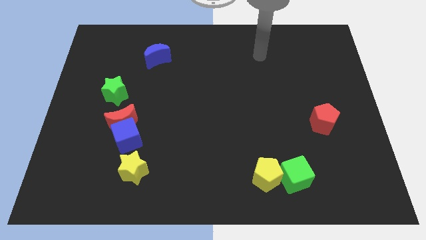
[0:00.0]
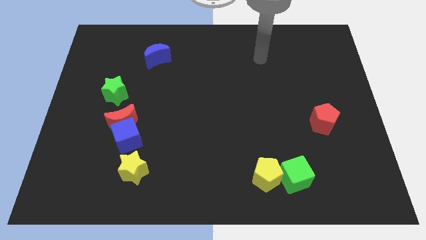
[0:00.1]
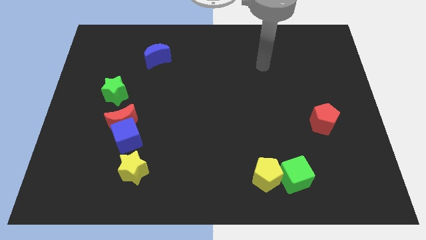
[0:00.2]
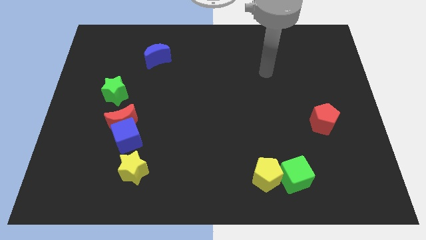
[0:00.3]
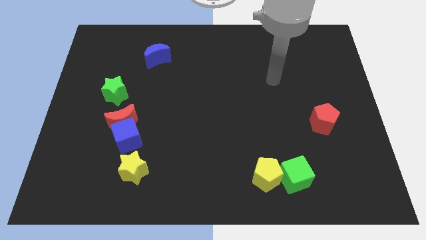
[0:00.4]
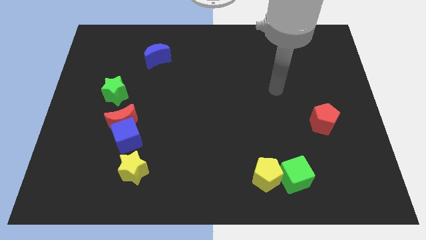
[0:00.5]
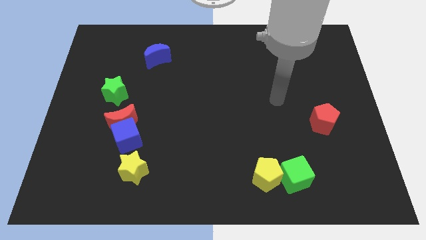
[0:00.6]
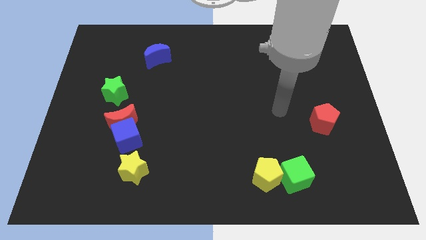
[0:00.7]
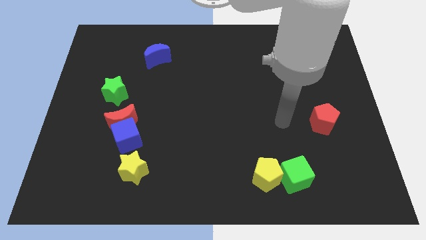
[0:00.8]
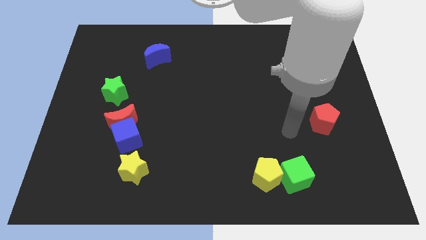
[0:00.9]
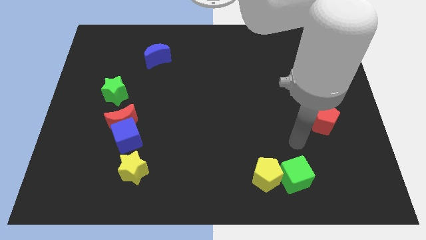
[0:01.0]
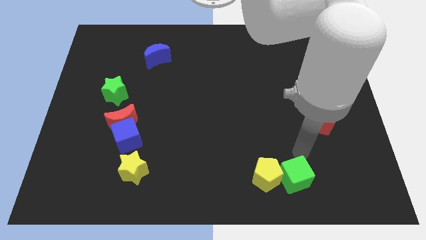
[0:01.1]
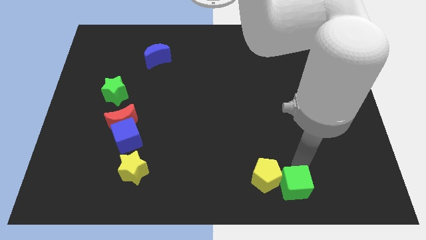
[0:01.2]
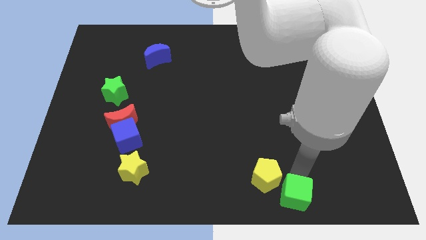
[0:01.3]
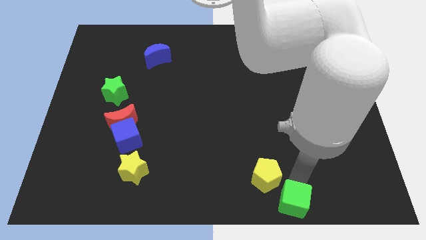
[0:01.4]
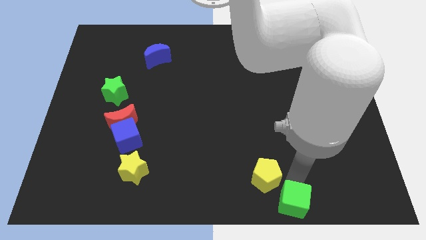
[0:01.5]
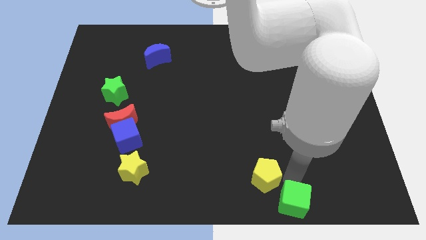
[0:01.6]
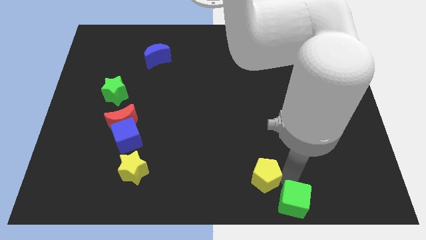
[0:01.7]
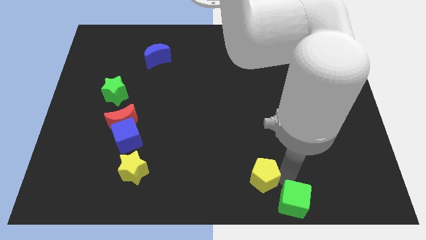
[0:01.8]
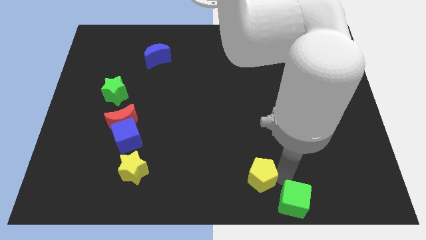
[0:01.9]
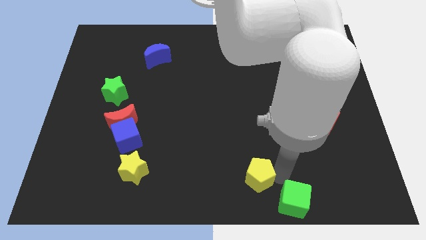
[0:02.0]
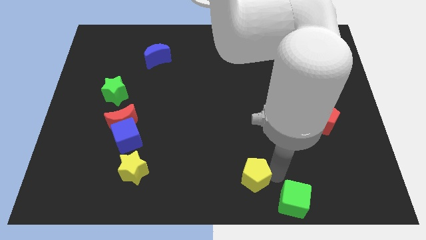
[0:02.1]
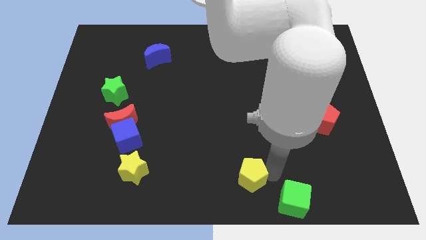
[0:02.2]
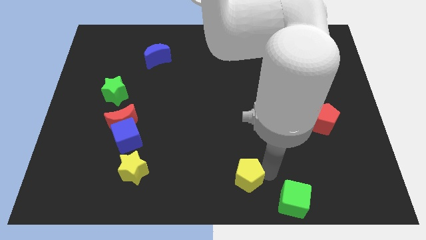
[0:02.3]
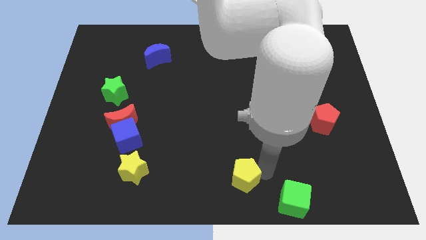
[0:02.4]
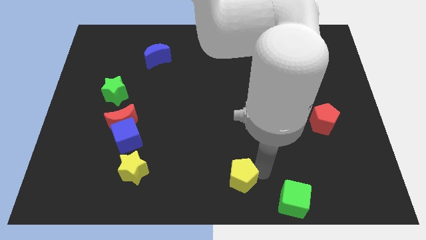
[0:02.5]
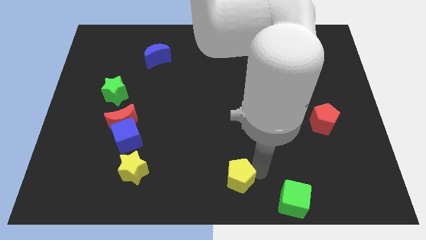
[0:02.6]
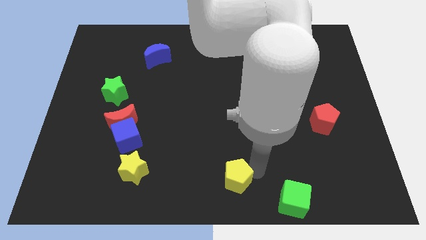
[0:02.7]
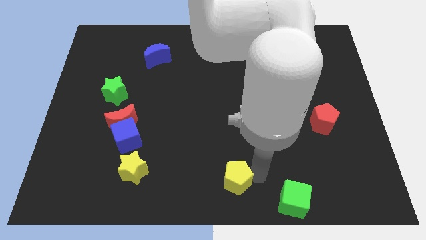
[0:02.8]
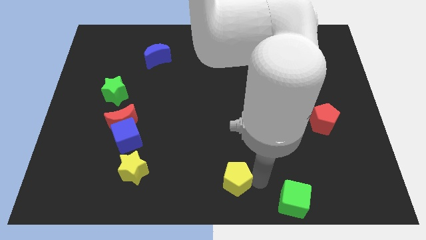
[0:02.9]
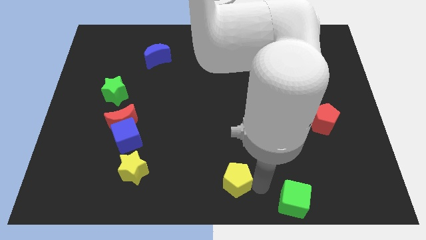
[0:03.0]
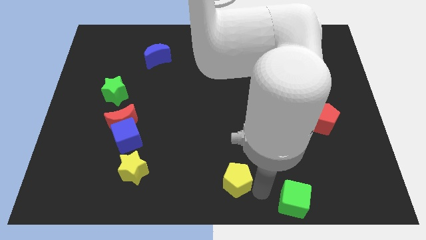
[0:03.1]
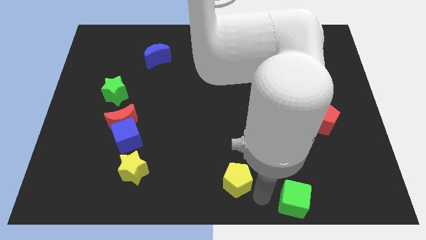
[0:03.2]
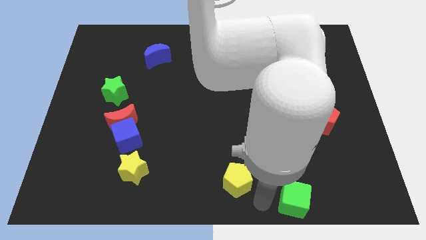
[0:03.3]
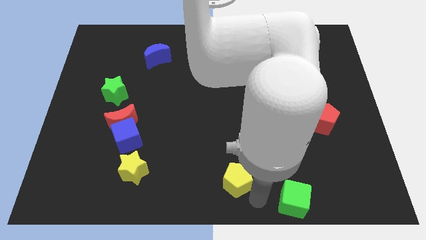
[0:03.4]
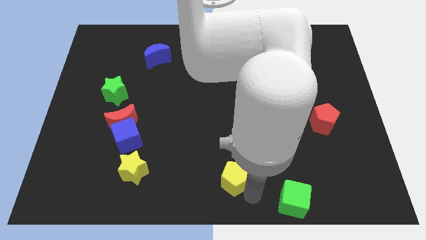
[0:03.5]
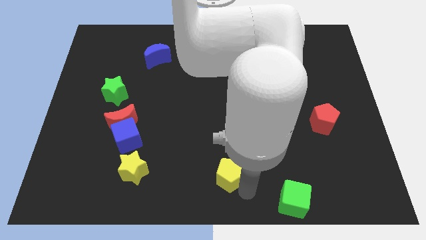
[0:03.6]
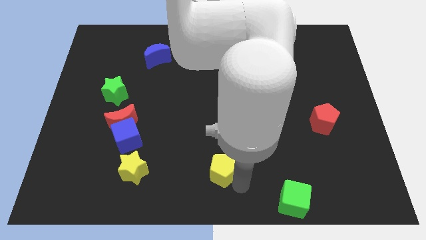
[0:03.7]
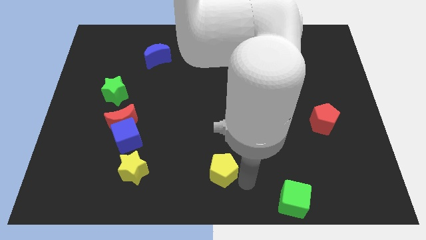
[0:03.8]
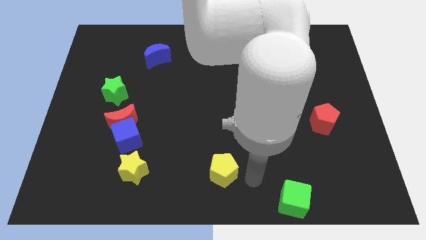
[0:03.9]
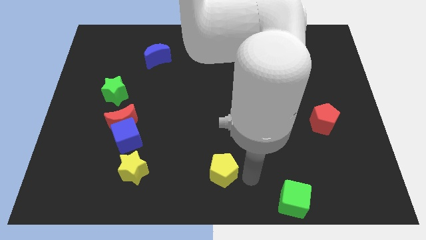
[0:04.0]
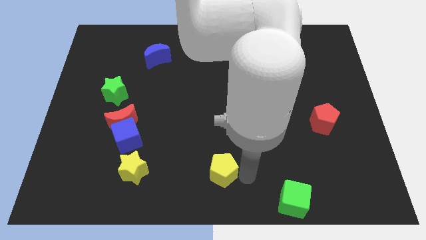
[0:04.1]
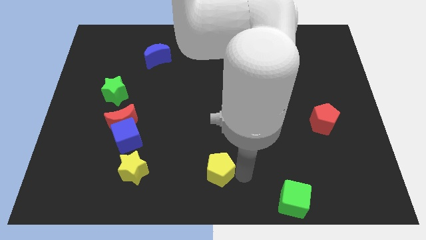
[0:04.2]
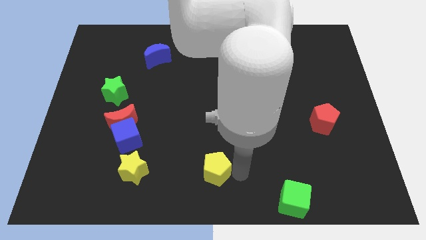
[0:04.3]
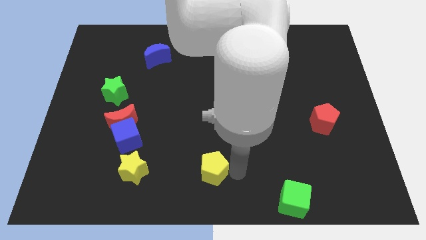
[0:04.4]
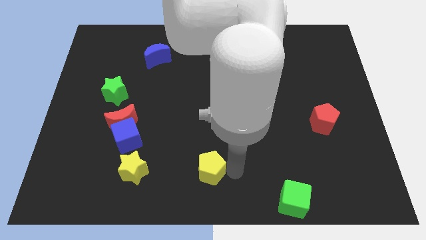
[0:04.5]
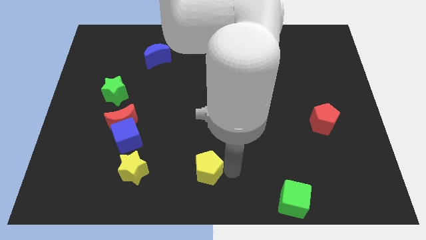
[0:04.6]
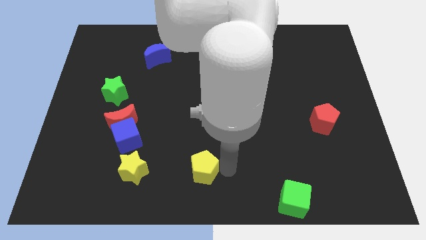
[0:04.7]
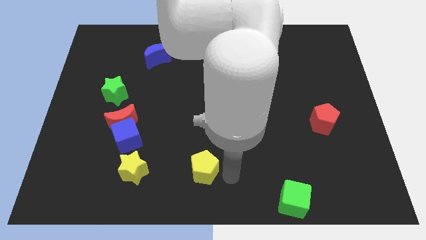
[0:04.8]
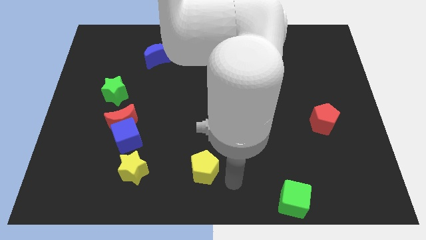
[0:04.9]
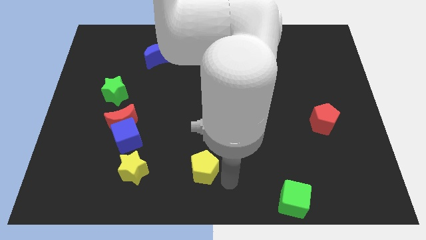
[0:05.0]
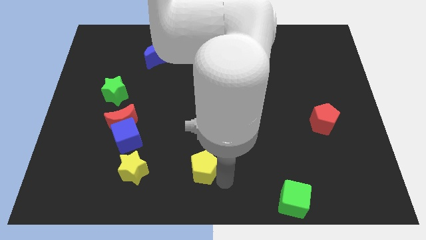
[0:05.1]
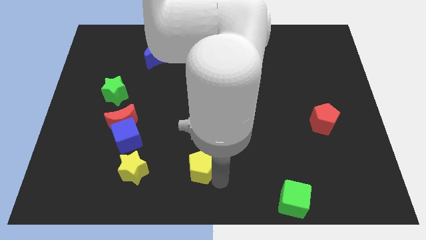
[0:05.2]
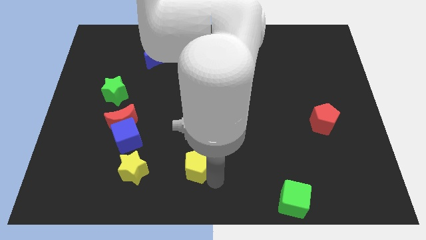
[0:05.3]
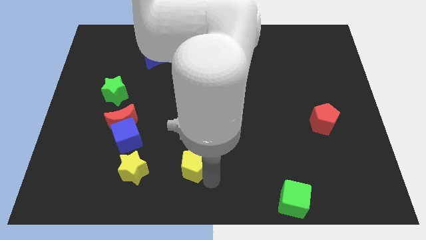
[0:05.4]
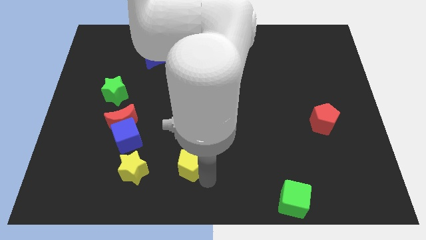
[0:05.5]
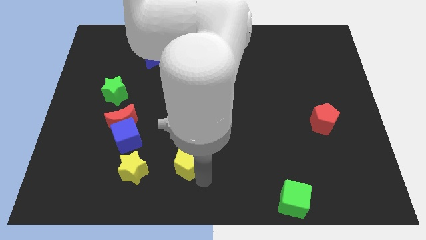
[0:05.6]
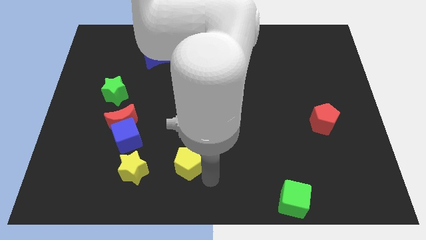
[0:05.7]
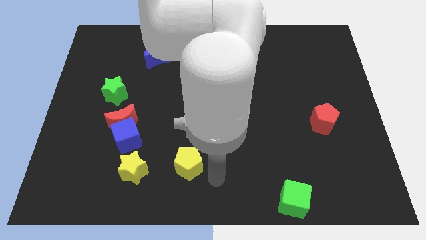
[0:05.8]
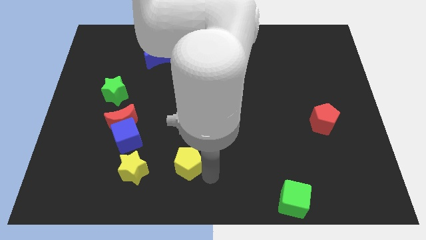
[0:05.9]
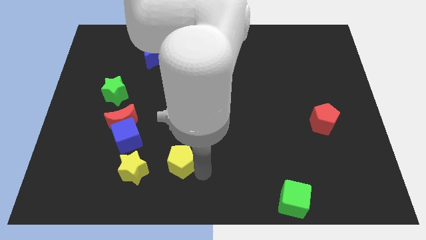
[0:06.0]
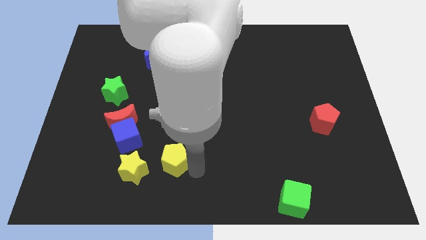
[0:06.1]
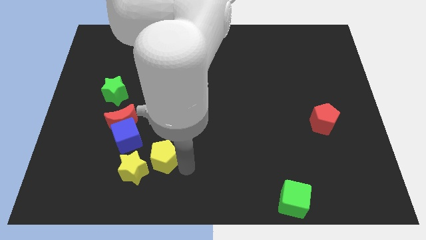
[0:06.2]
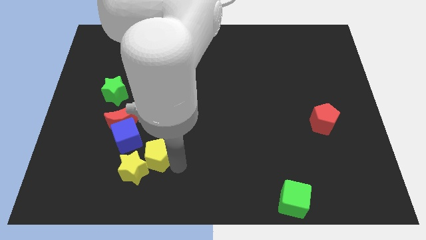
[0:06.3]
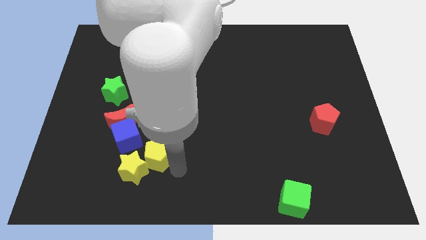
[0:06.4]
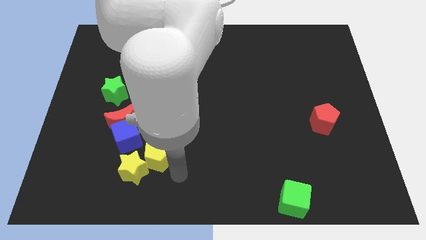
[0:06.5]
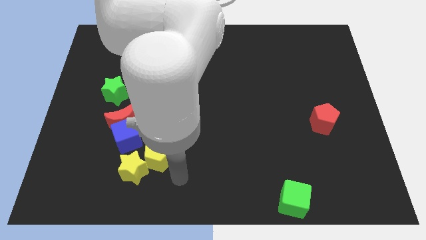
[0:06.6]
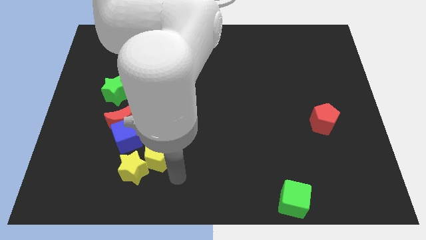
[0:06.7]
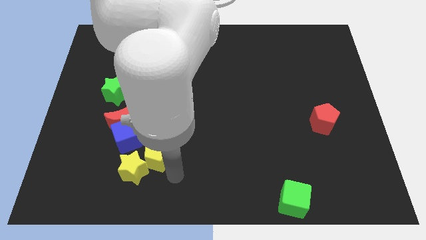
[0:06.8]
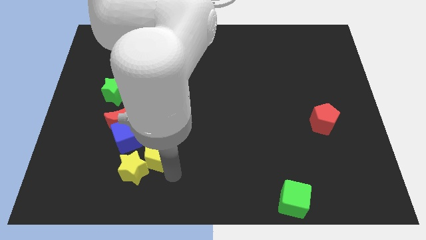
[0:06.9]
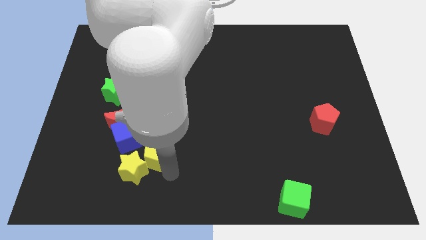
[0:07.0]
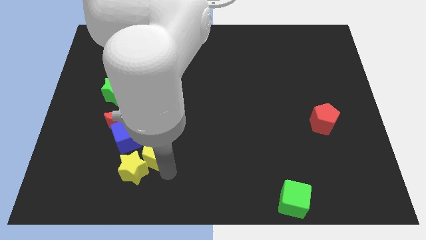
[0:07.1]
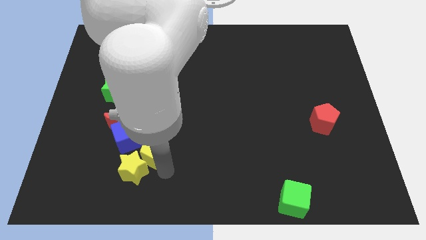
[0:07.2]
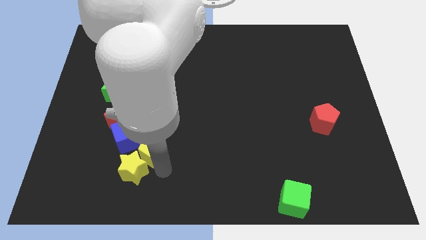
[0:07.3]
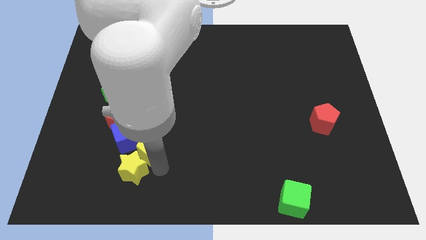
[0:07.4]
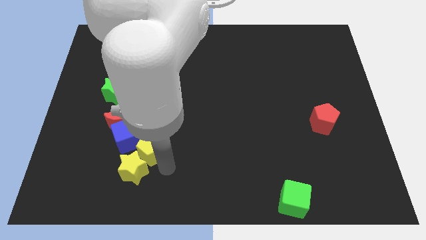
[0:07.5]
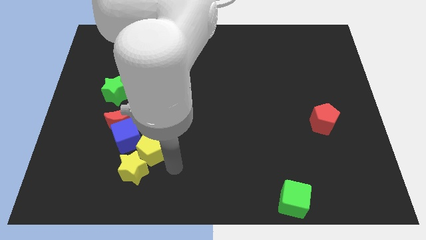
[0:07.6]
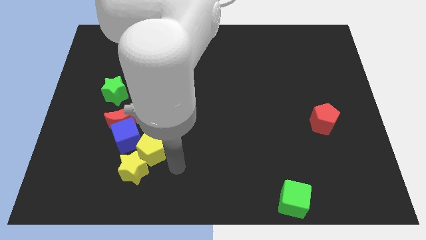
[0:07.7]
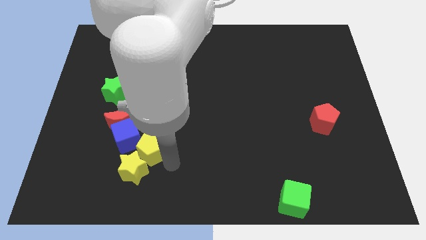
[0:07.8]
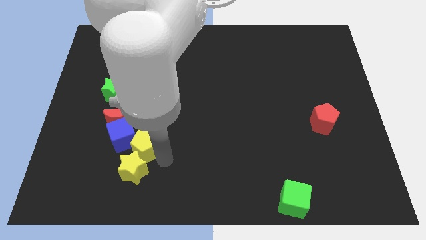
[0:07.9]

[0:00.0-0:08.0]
put the yellow pentagon towards the blue cube
